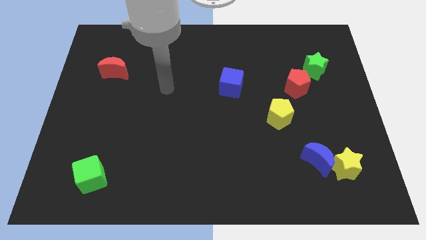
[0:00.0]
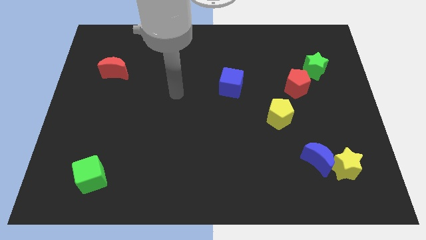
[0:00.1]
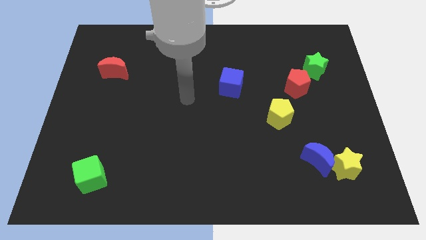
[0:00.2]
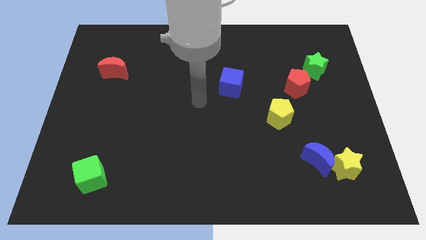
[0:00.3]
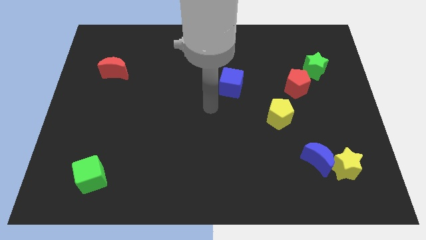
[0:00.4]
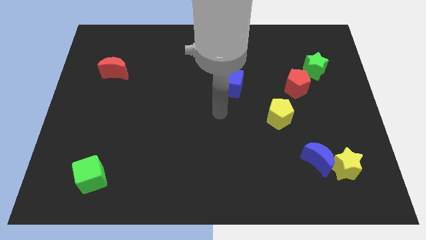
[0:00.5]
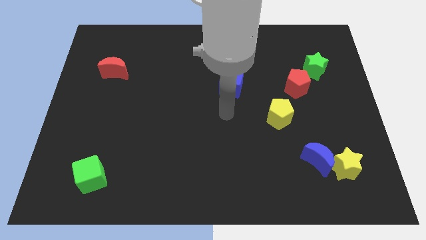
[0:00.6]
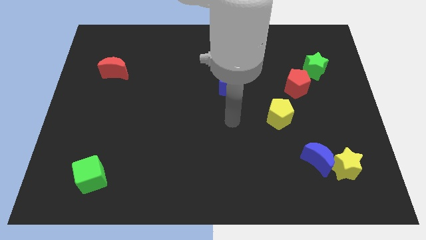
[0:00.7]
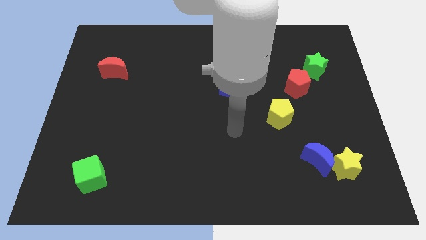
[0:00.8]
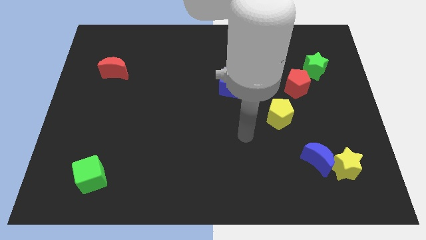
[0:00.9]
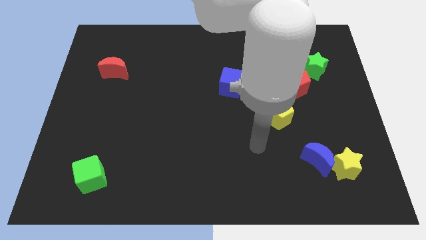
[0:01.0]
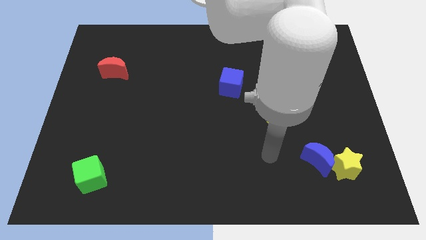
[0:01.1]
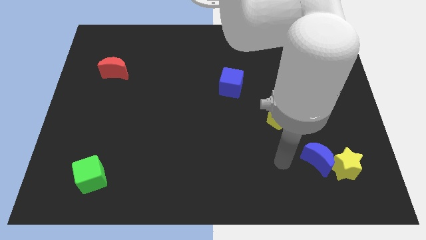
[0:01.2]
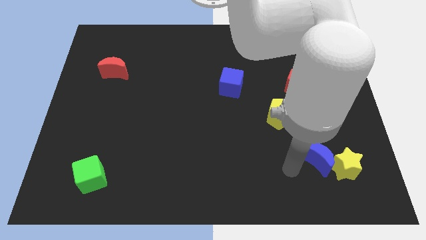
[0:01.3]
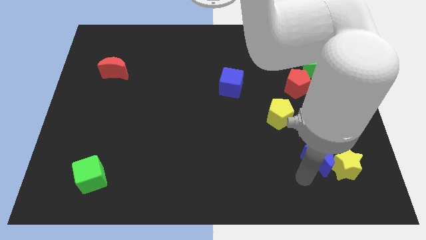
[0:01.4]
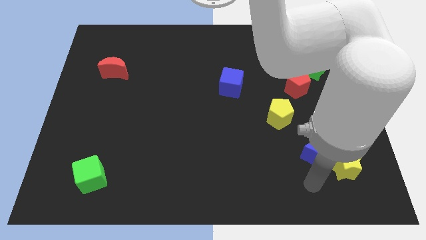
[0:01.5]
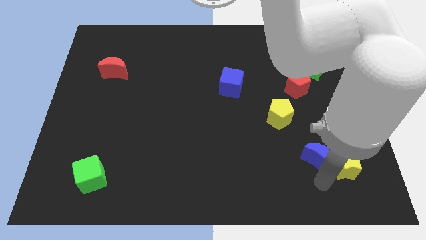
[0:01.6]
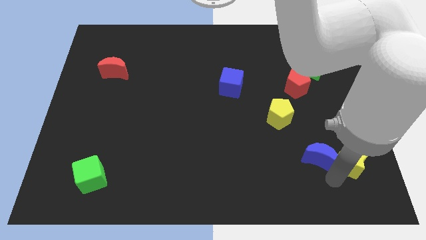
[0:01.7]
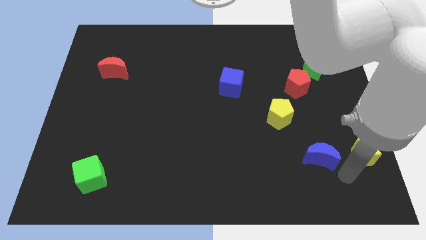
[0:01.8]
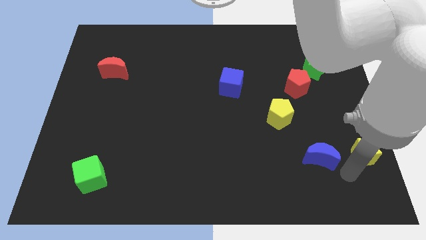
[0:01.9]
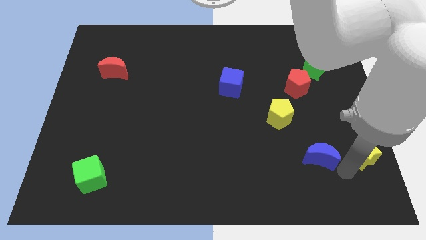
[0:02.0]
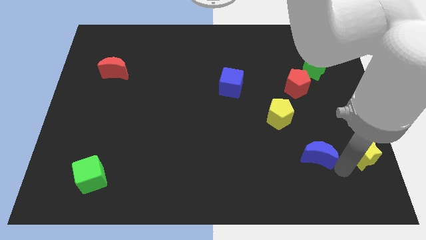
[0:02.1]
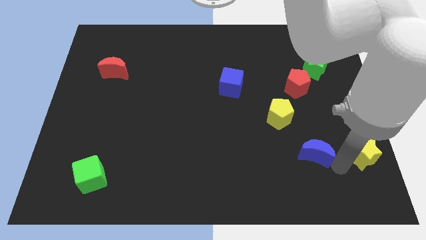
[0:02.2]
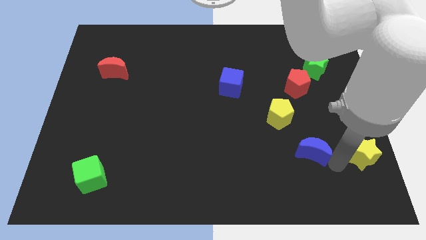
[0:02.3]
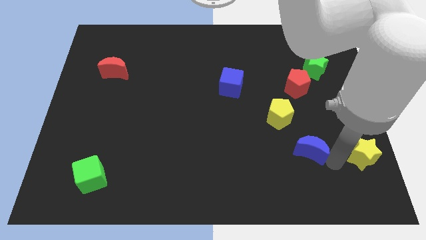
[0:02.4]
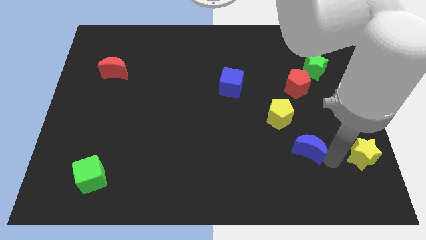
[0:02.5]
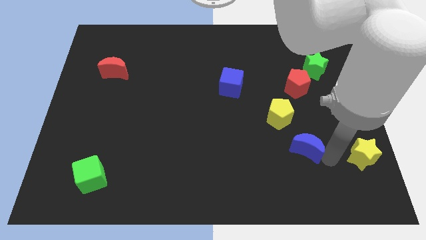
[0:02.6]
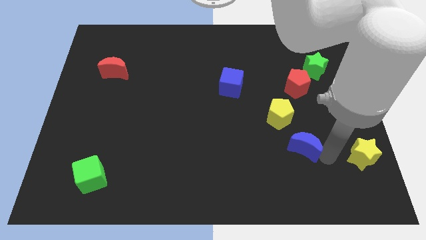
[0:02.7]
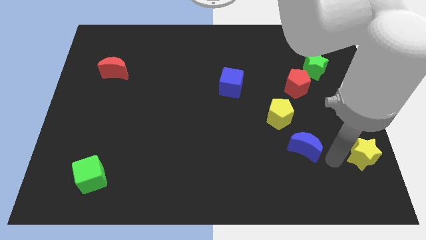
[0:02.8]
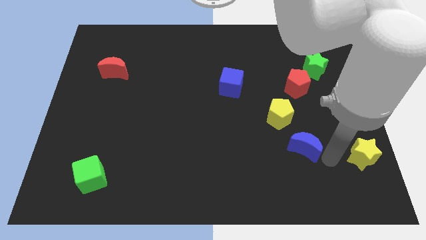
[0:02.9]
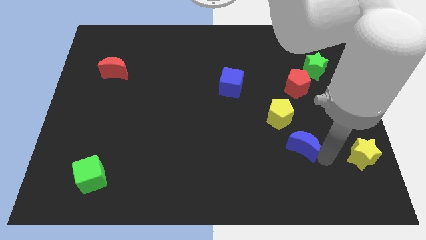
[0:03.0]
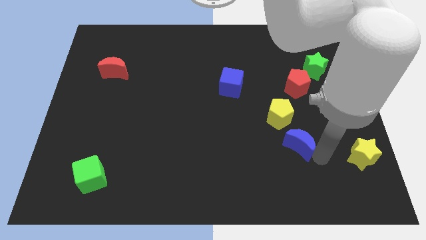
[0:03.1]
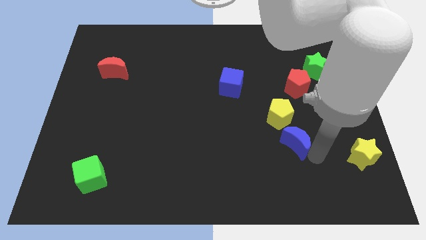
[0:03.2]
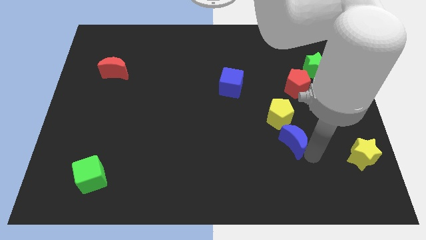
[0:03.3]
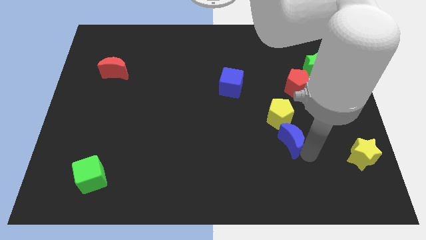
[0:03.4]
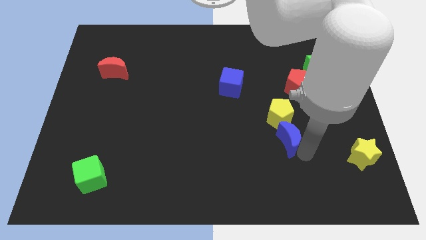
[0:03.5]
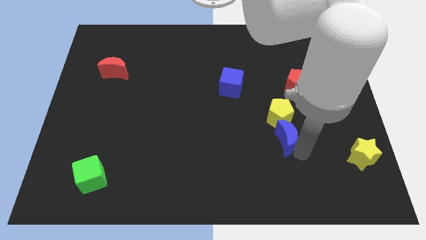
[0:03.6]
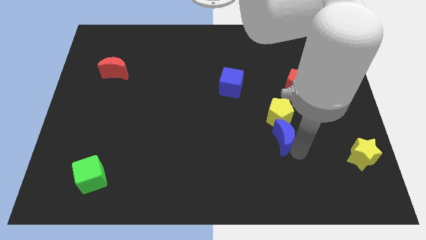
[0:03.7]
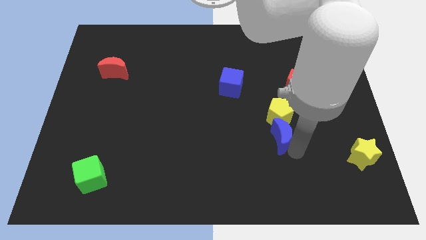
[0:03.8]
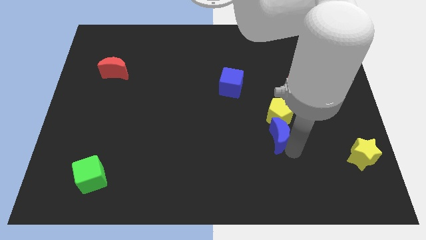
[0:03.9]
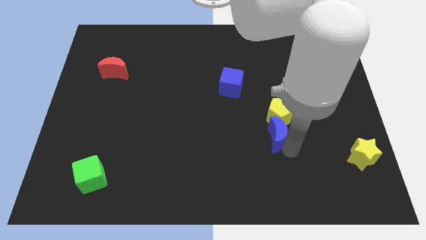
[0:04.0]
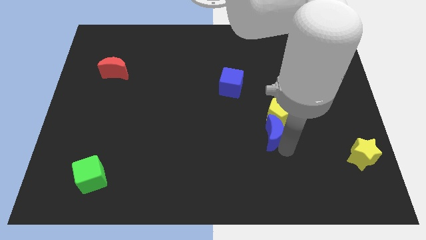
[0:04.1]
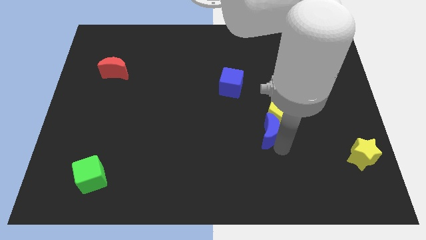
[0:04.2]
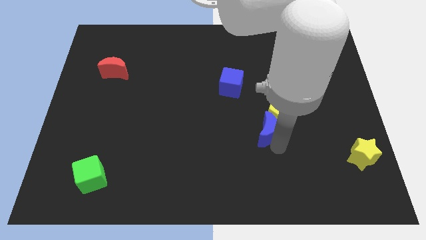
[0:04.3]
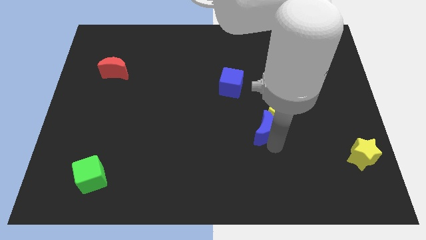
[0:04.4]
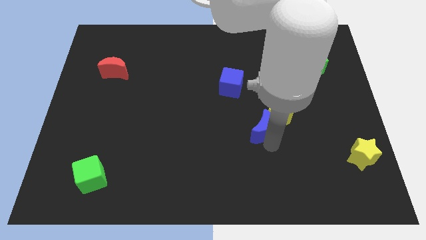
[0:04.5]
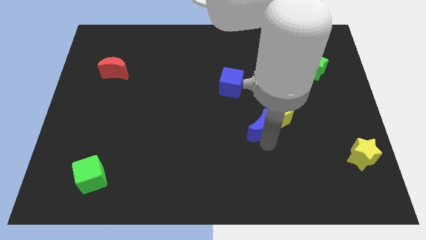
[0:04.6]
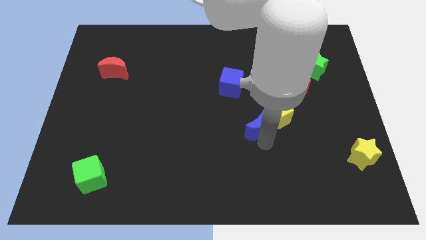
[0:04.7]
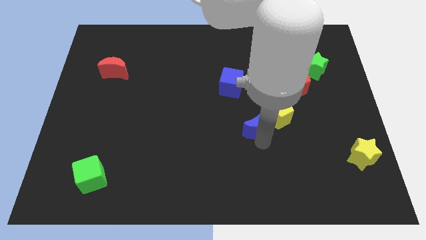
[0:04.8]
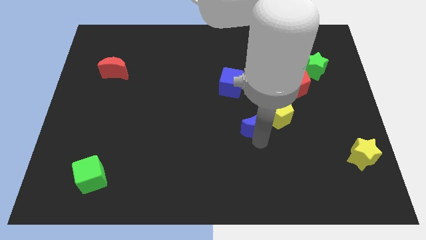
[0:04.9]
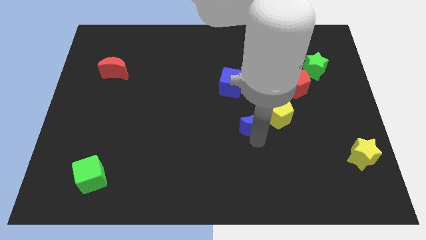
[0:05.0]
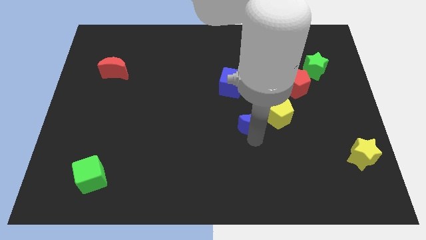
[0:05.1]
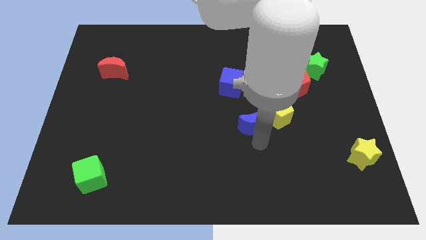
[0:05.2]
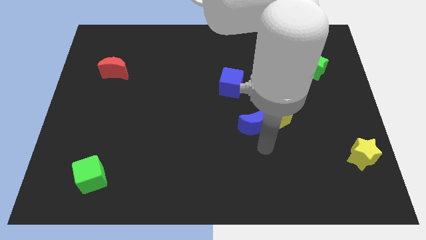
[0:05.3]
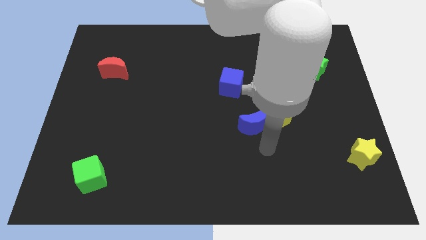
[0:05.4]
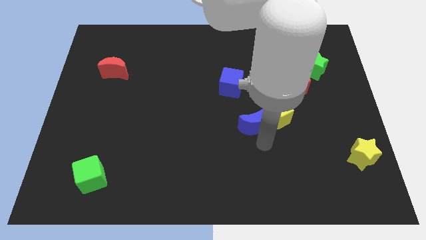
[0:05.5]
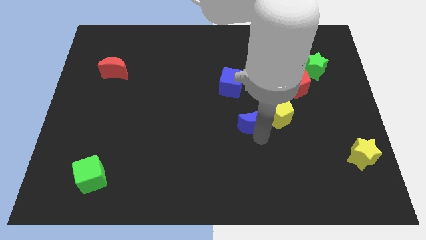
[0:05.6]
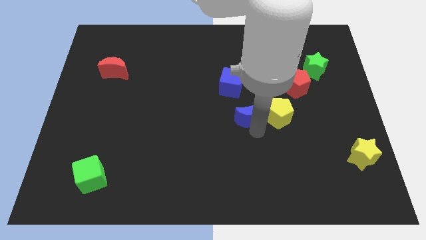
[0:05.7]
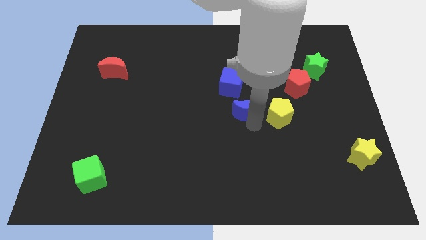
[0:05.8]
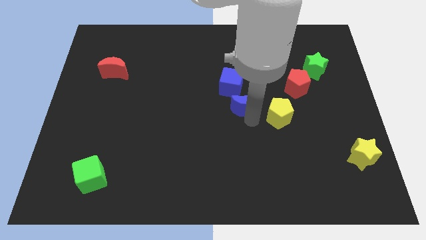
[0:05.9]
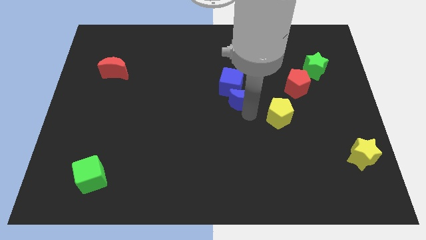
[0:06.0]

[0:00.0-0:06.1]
push the blue moon close to the blue cube

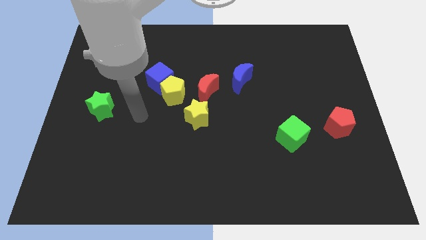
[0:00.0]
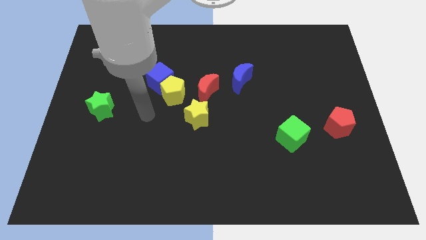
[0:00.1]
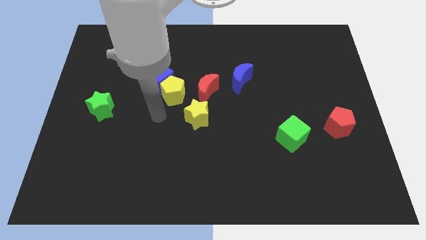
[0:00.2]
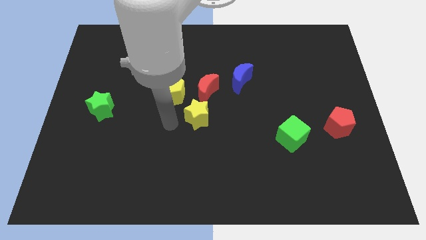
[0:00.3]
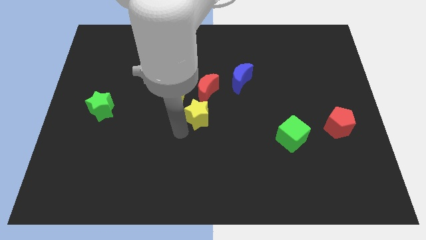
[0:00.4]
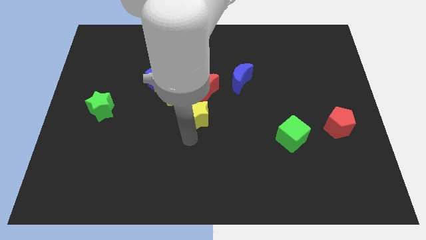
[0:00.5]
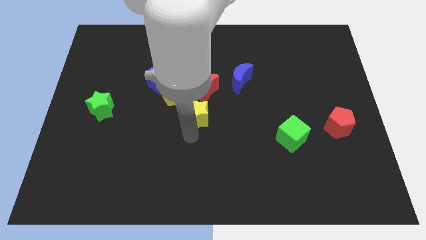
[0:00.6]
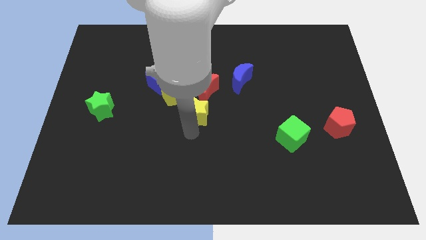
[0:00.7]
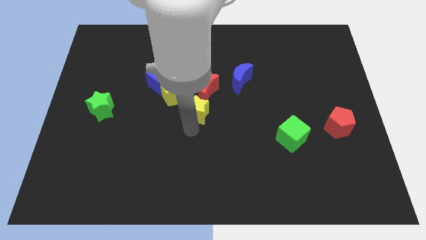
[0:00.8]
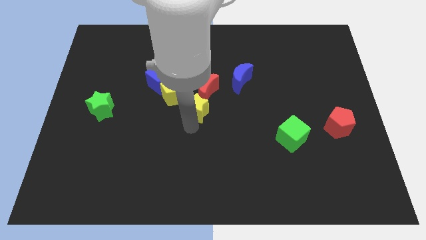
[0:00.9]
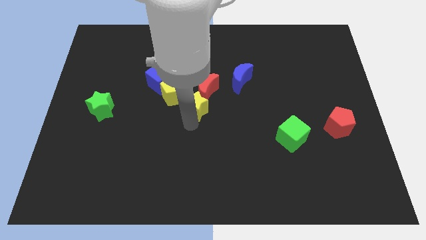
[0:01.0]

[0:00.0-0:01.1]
push the yellow star to the red moon
